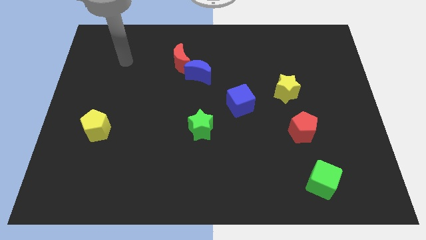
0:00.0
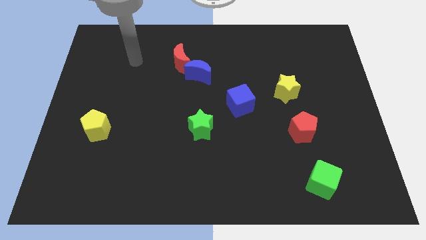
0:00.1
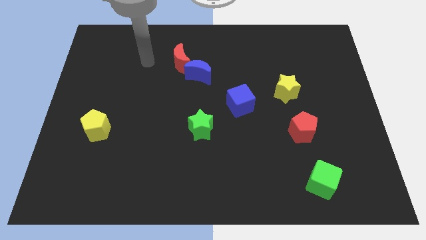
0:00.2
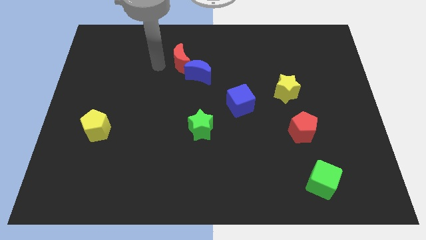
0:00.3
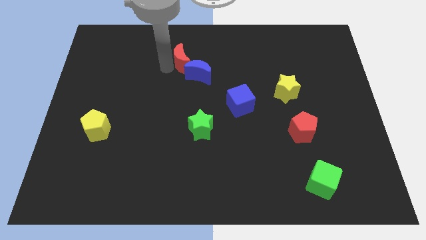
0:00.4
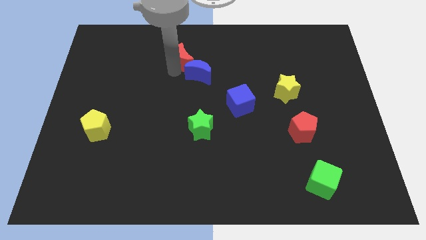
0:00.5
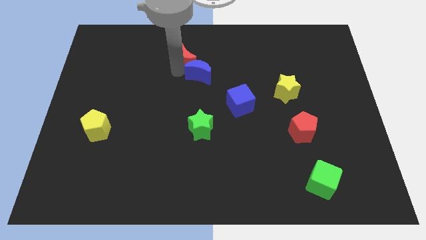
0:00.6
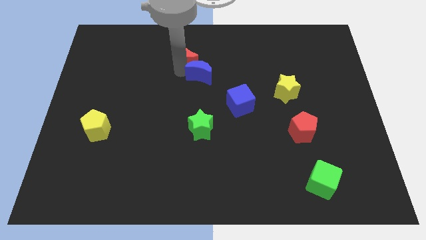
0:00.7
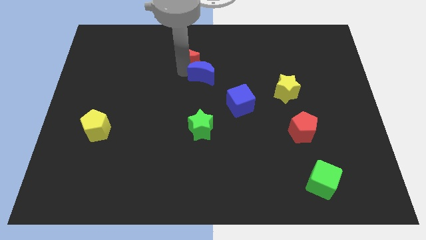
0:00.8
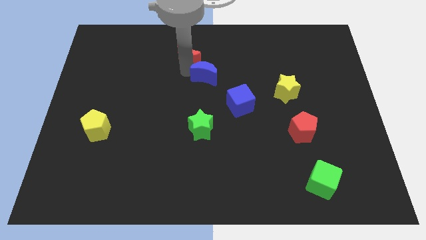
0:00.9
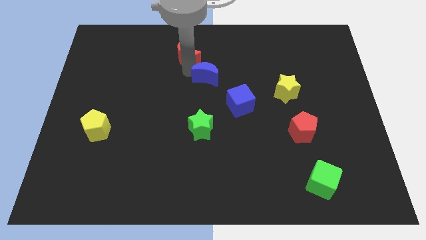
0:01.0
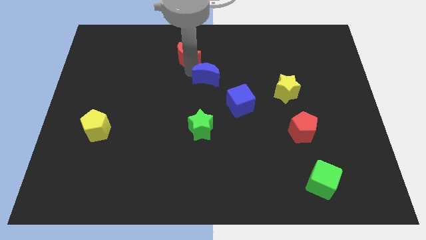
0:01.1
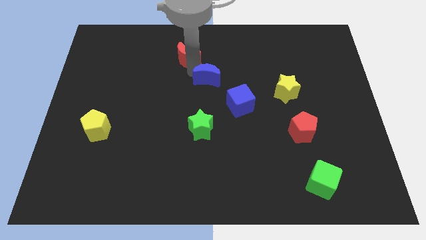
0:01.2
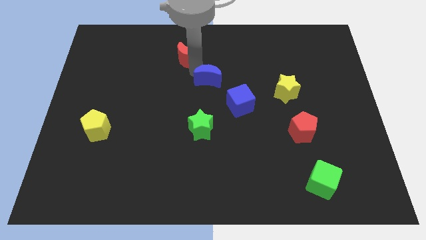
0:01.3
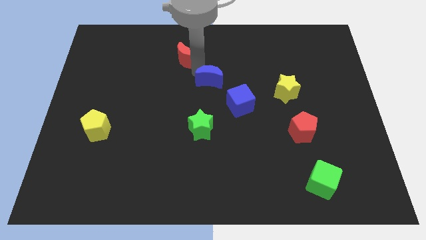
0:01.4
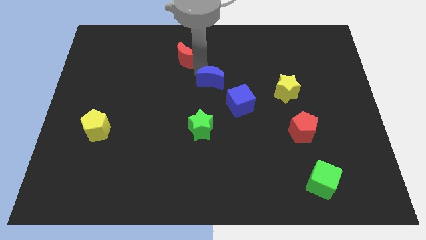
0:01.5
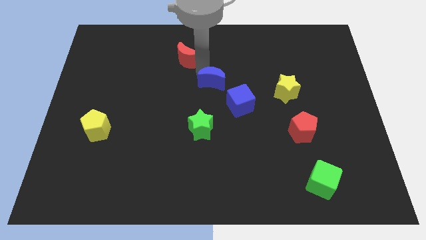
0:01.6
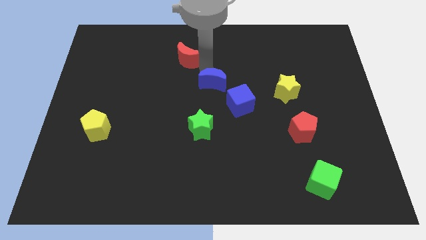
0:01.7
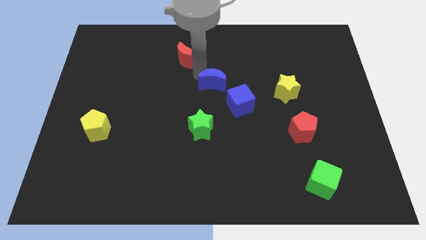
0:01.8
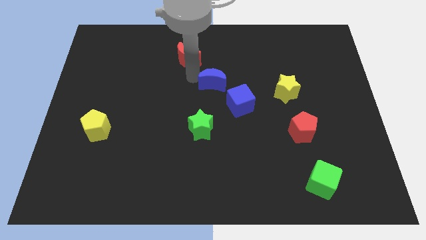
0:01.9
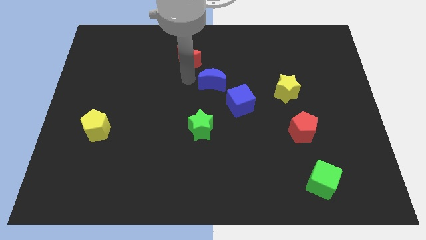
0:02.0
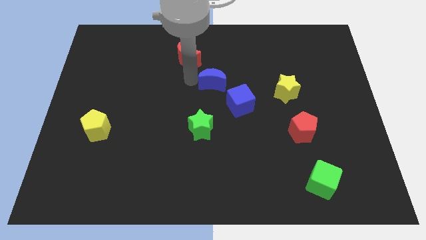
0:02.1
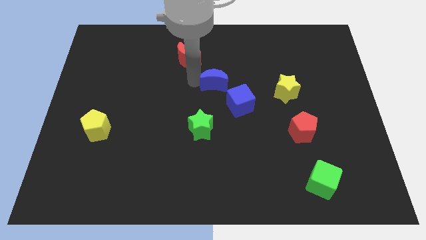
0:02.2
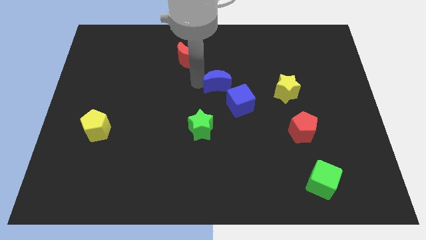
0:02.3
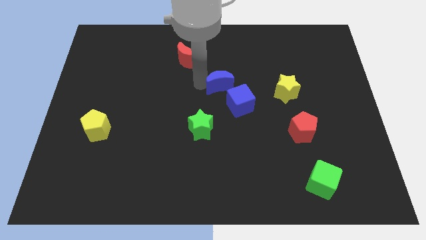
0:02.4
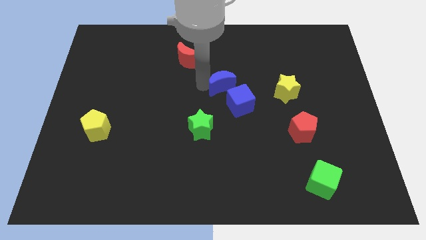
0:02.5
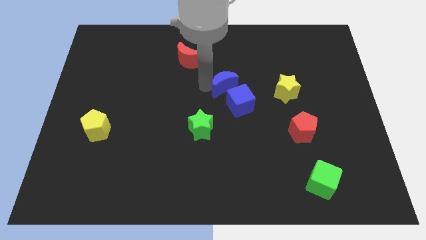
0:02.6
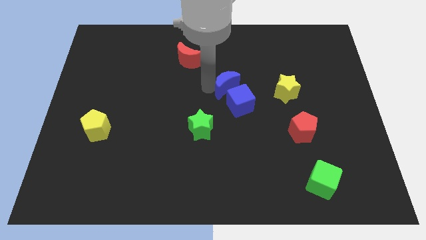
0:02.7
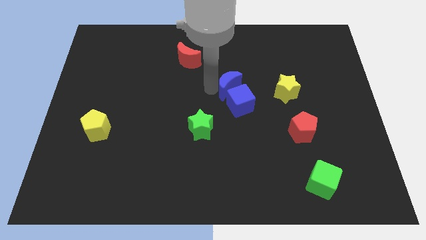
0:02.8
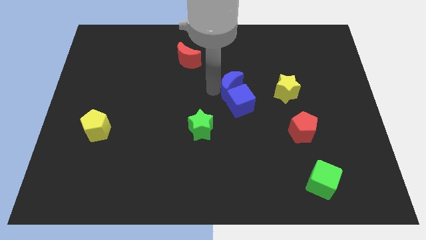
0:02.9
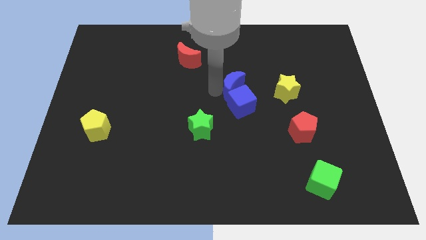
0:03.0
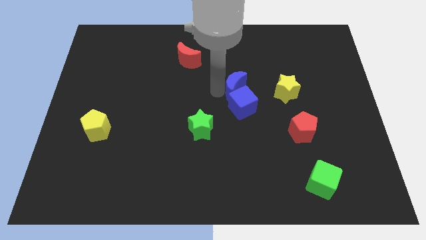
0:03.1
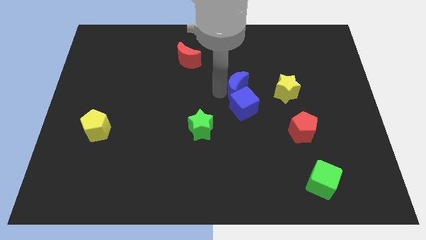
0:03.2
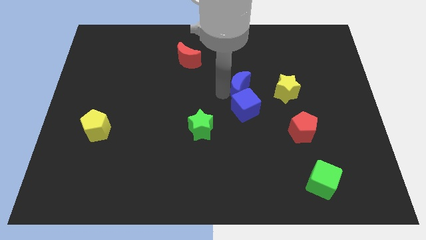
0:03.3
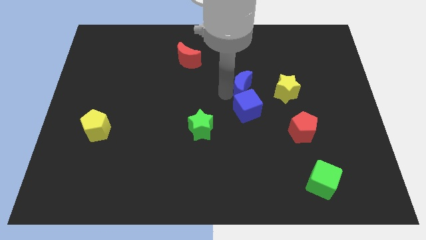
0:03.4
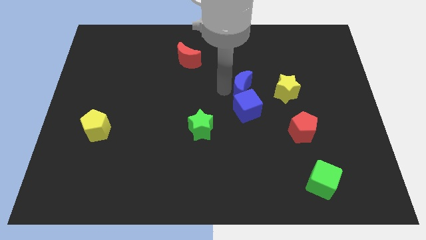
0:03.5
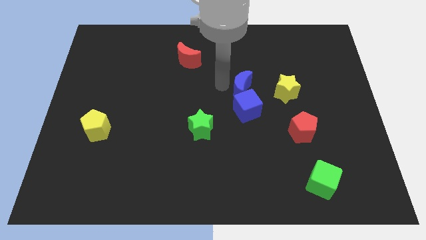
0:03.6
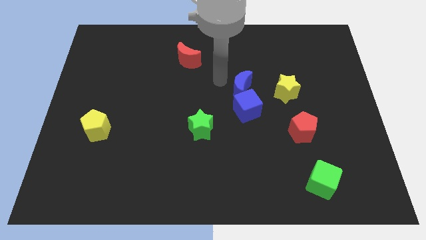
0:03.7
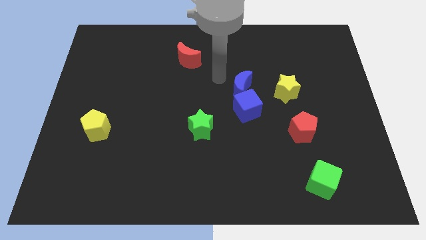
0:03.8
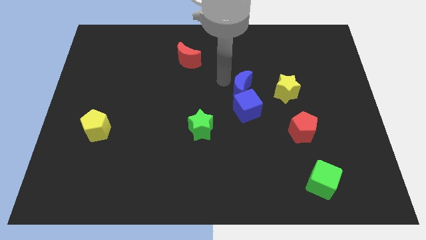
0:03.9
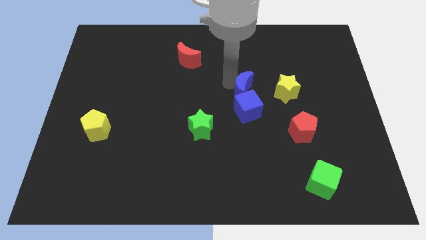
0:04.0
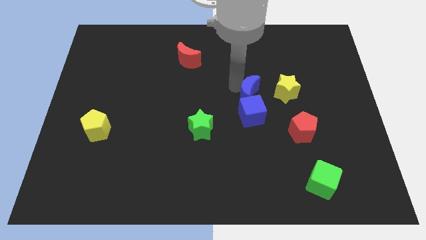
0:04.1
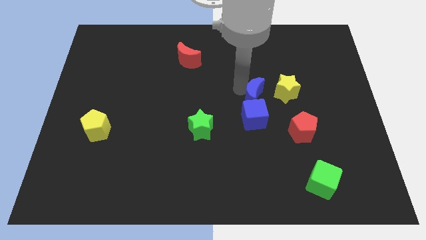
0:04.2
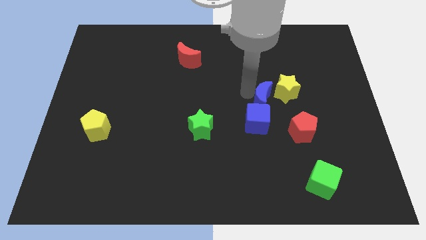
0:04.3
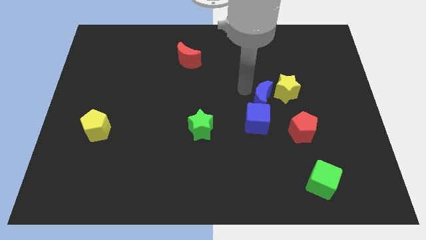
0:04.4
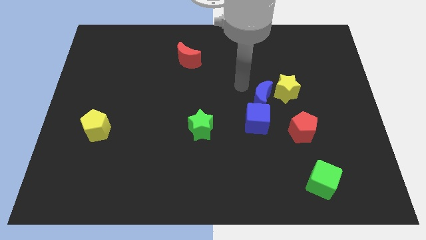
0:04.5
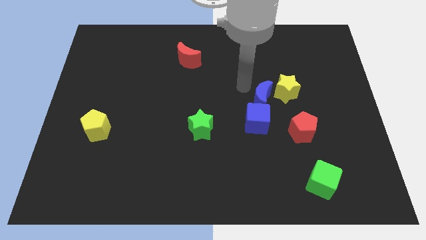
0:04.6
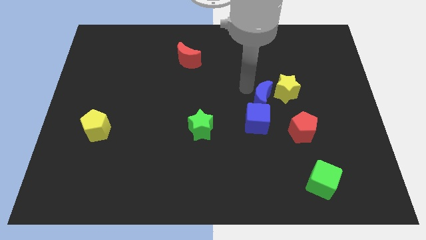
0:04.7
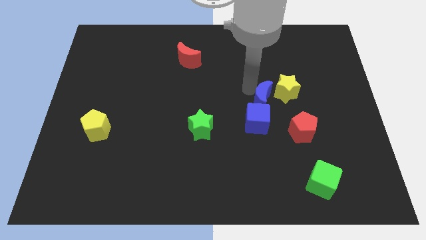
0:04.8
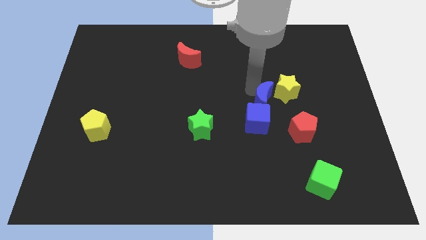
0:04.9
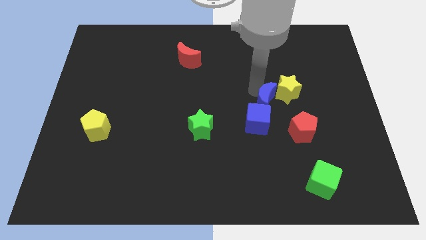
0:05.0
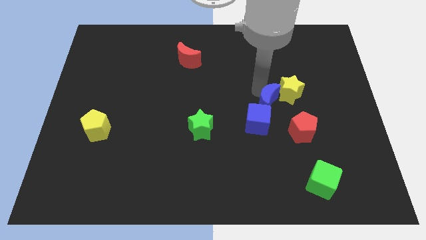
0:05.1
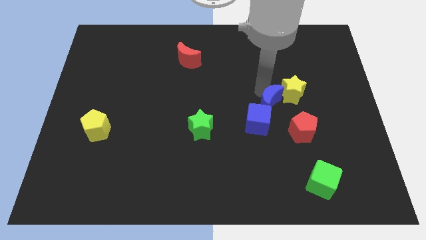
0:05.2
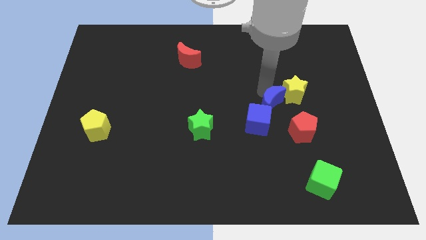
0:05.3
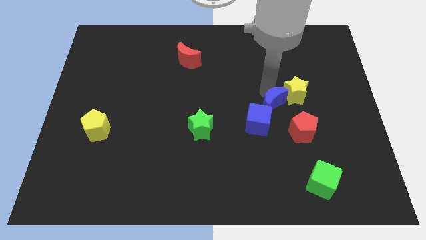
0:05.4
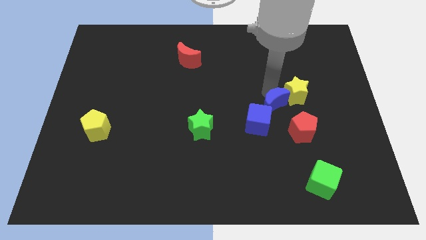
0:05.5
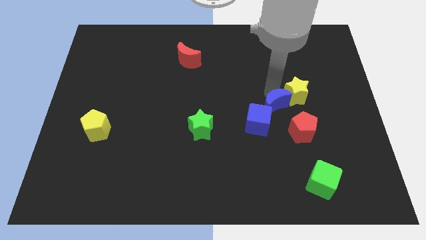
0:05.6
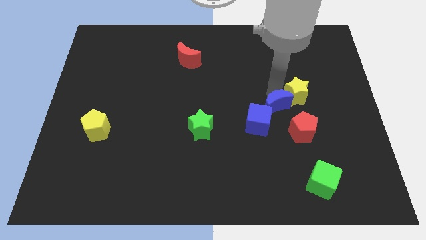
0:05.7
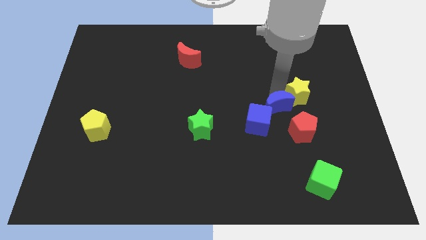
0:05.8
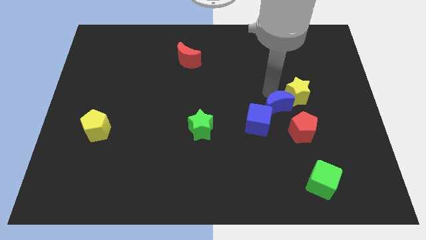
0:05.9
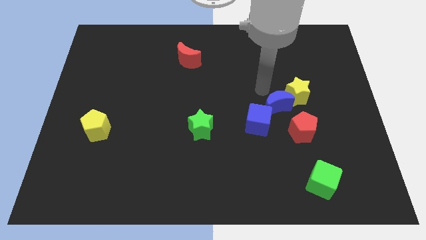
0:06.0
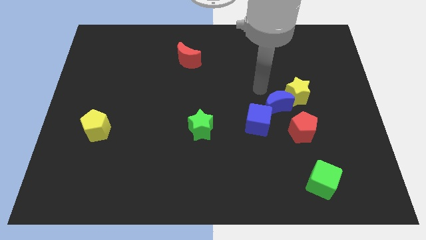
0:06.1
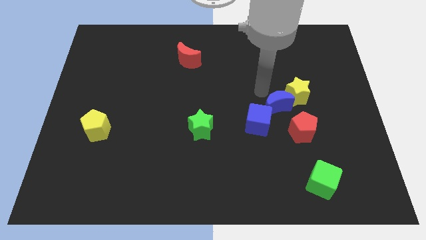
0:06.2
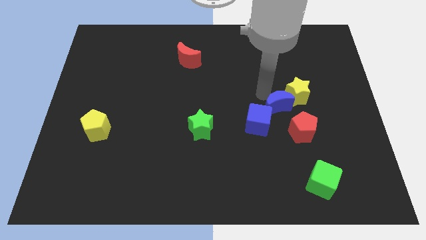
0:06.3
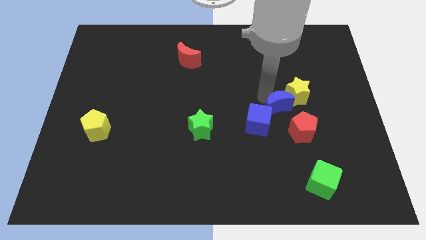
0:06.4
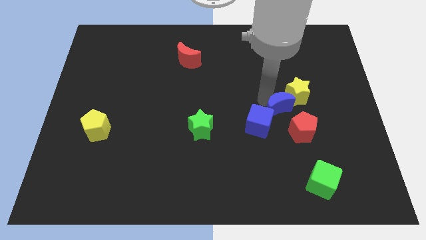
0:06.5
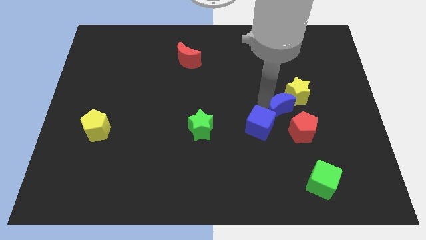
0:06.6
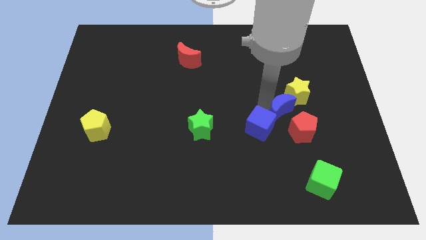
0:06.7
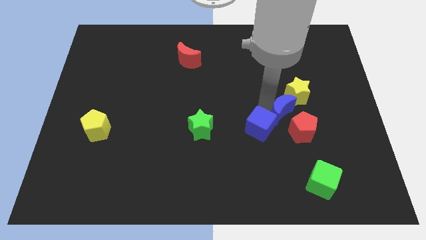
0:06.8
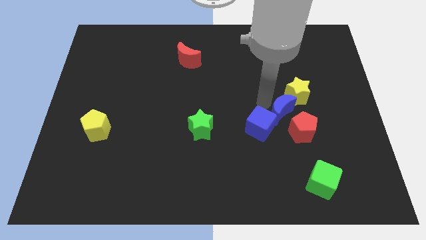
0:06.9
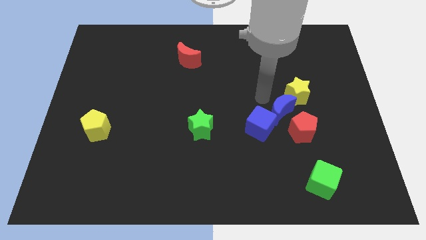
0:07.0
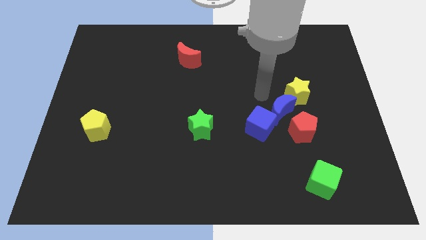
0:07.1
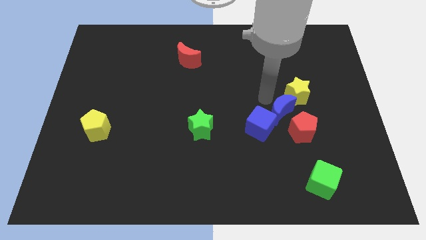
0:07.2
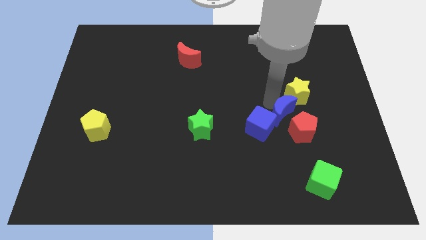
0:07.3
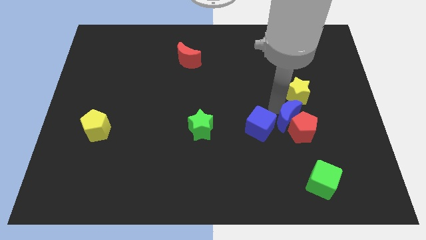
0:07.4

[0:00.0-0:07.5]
push the blue moon to the red pentagon
